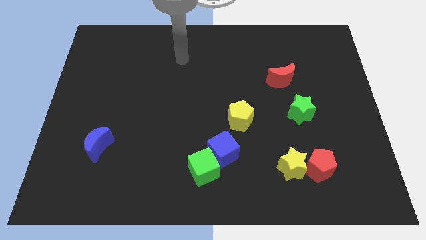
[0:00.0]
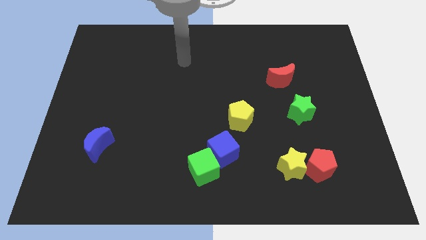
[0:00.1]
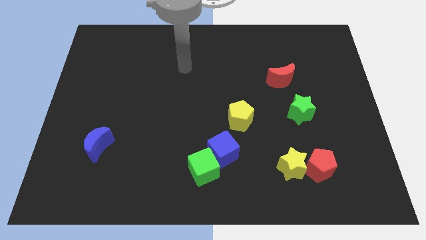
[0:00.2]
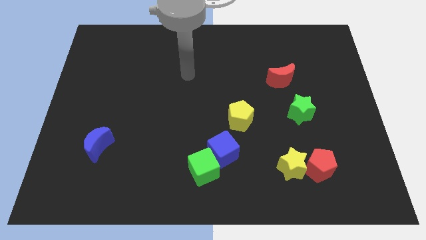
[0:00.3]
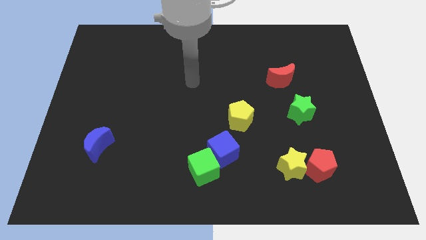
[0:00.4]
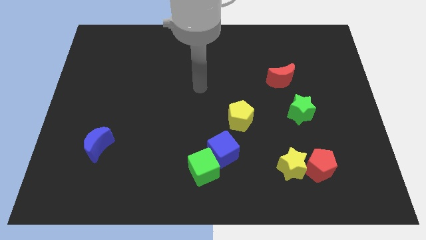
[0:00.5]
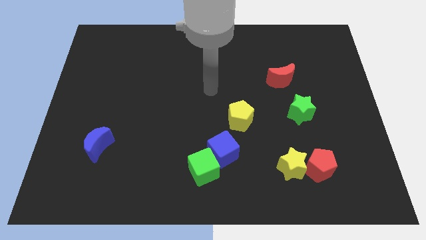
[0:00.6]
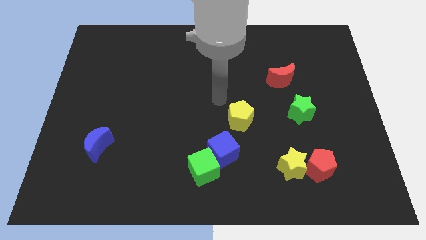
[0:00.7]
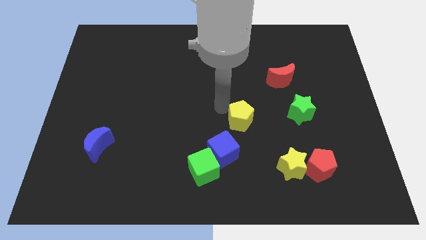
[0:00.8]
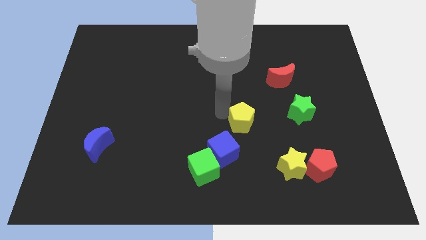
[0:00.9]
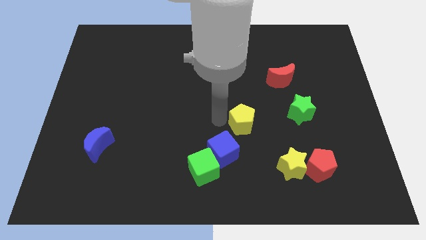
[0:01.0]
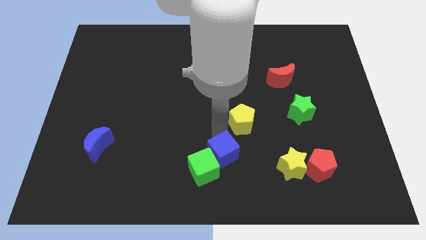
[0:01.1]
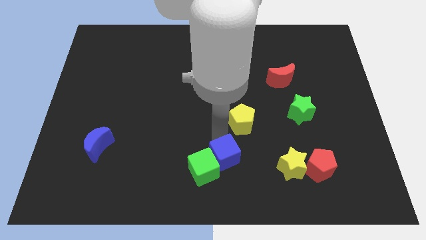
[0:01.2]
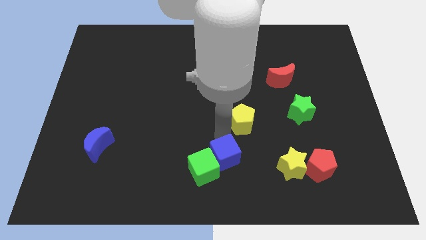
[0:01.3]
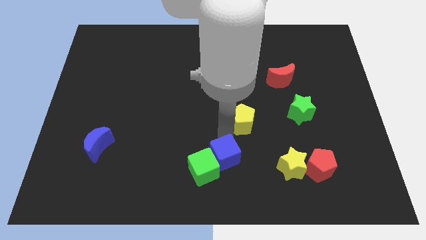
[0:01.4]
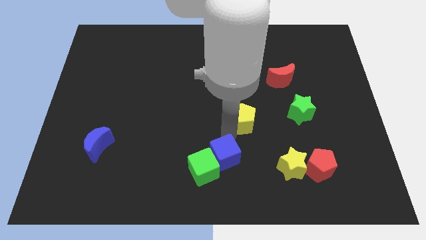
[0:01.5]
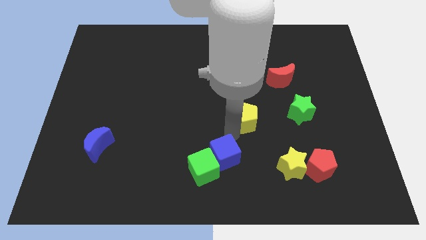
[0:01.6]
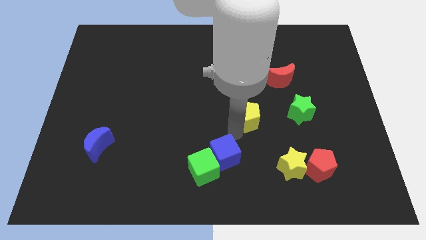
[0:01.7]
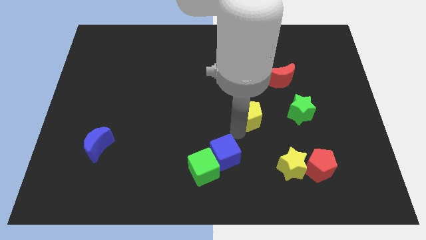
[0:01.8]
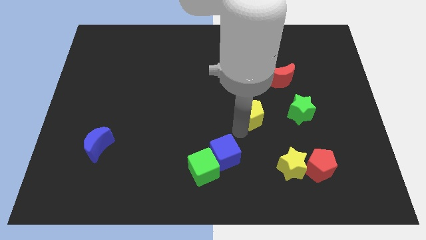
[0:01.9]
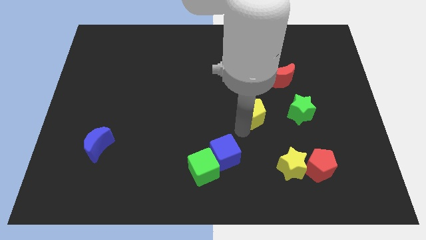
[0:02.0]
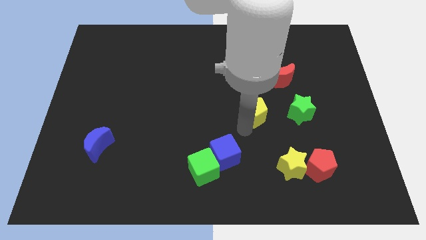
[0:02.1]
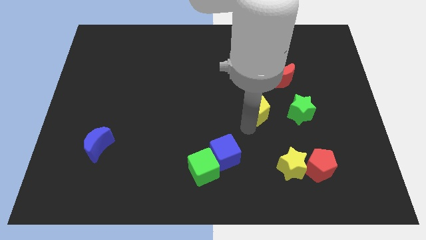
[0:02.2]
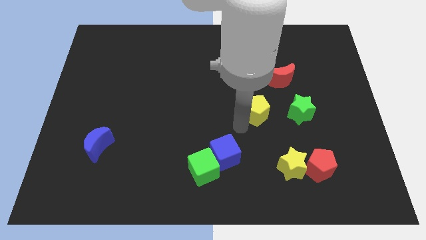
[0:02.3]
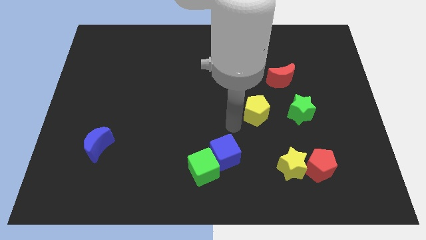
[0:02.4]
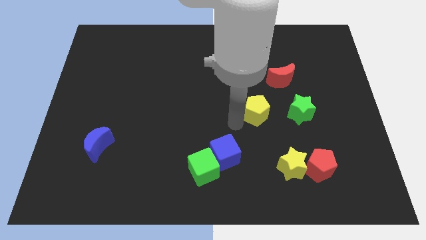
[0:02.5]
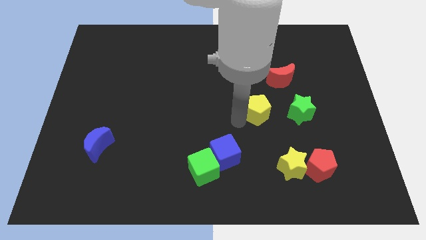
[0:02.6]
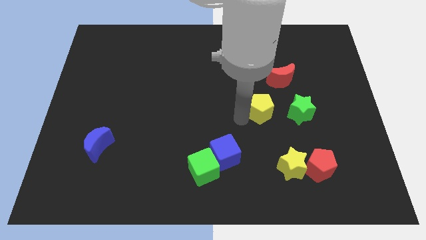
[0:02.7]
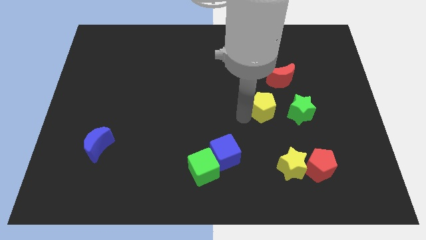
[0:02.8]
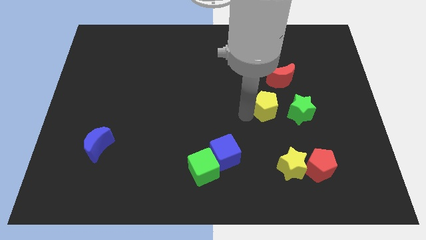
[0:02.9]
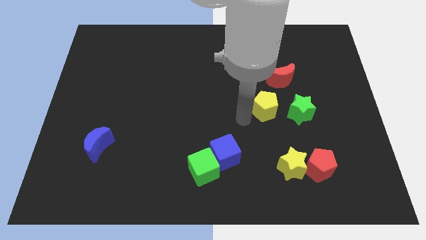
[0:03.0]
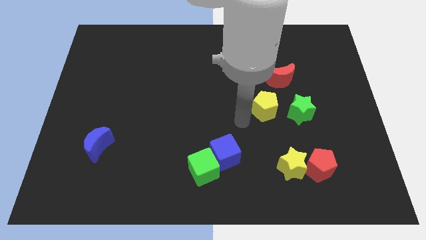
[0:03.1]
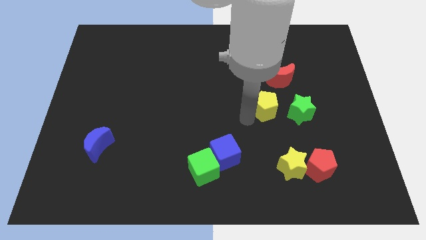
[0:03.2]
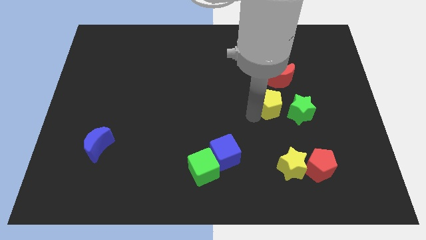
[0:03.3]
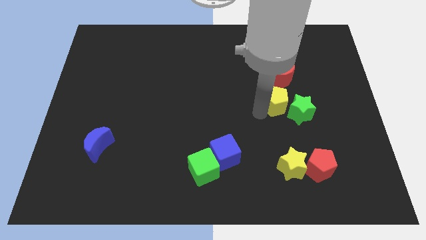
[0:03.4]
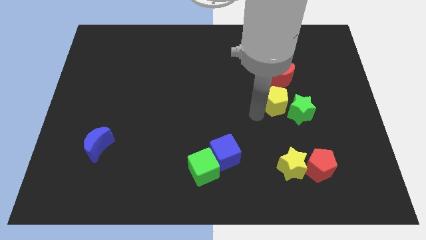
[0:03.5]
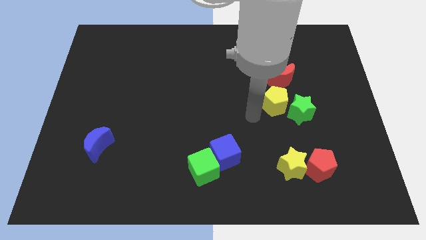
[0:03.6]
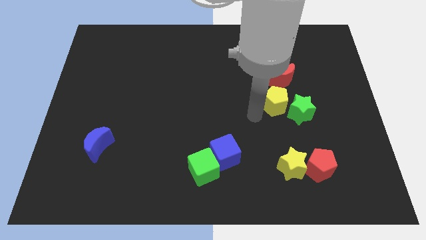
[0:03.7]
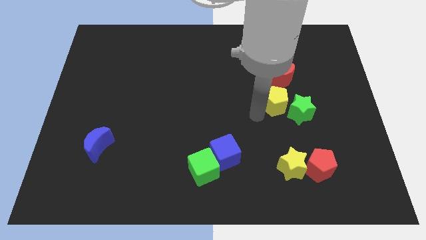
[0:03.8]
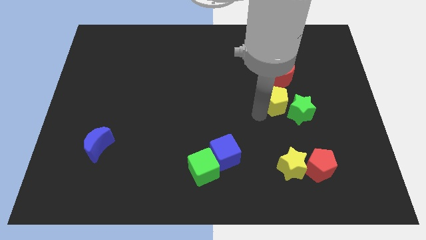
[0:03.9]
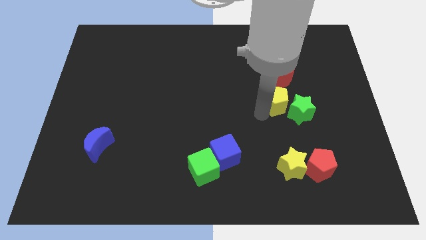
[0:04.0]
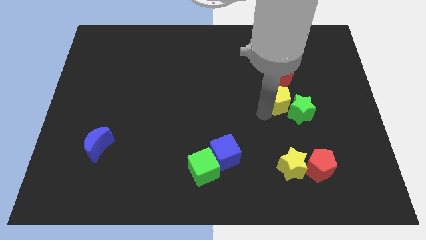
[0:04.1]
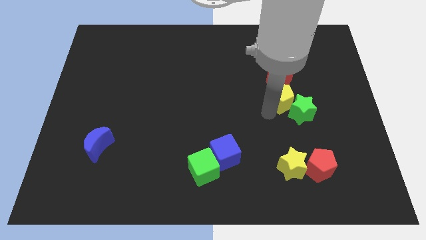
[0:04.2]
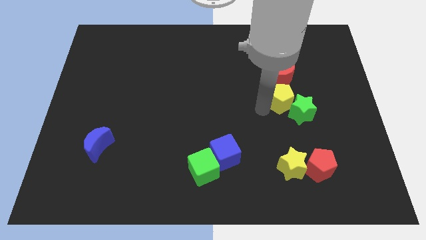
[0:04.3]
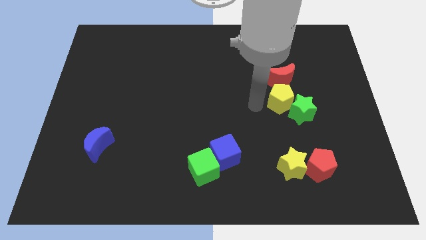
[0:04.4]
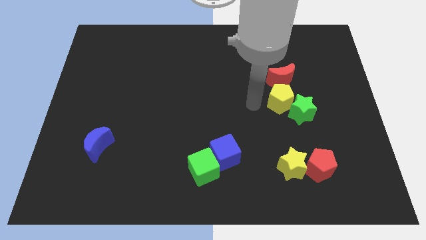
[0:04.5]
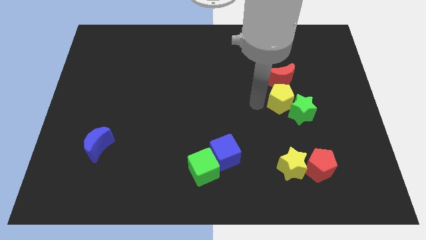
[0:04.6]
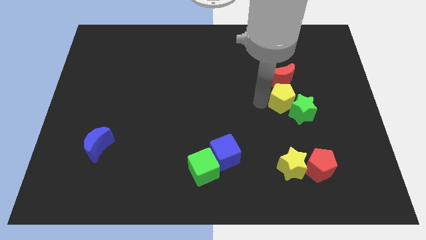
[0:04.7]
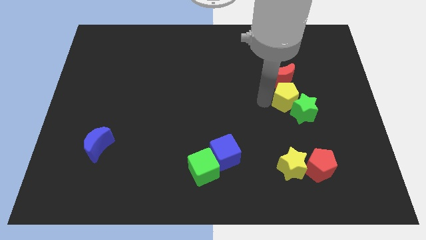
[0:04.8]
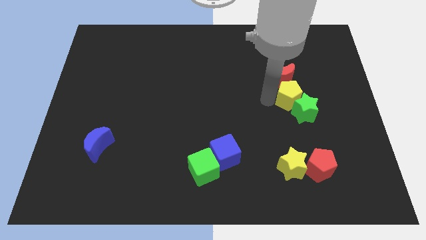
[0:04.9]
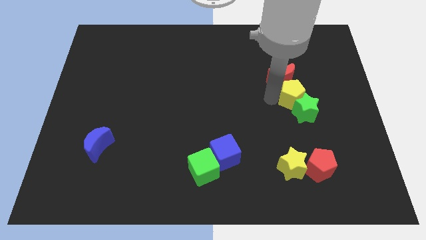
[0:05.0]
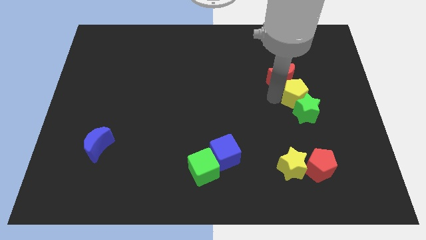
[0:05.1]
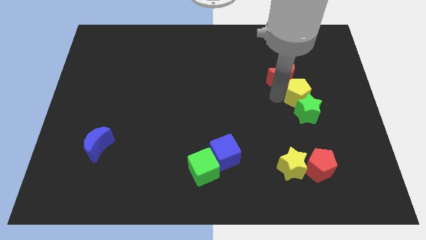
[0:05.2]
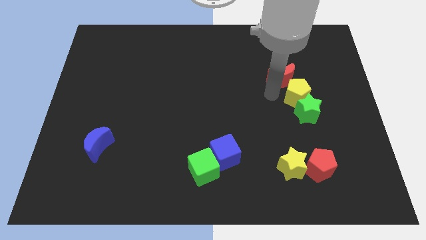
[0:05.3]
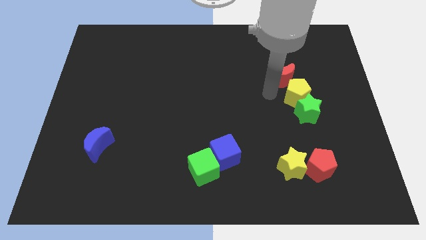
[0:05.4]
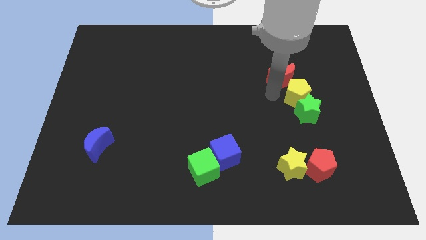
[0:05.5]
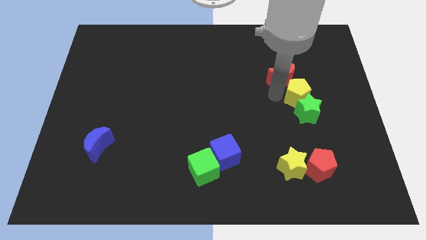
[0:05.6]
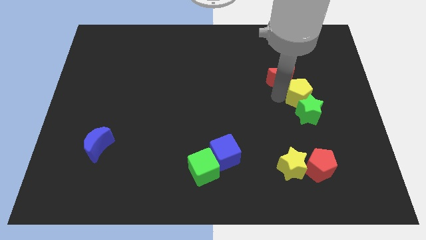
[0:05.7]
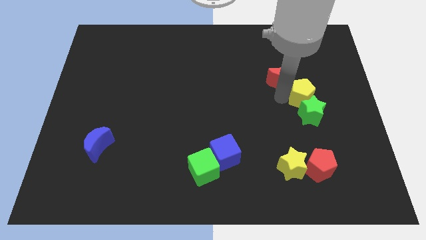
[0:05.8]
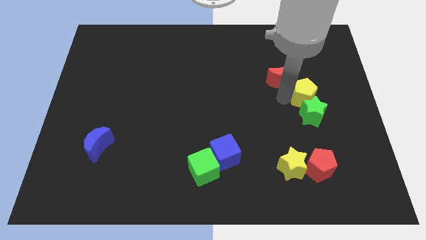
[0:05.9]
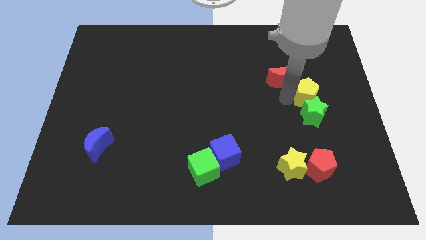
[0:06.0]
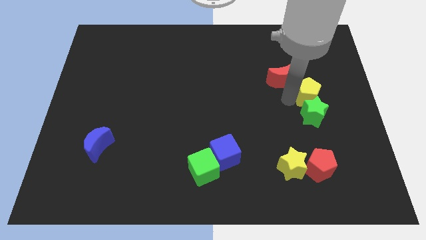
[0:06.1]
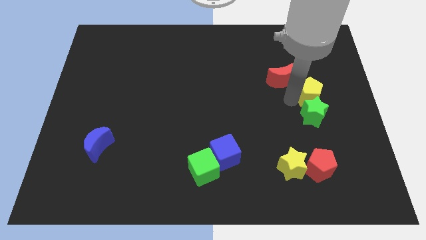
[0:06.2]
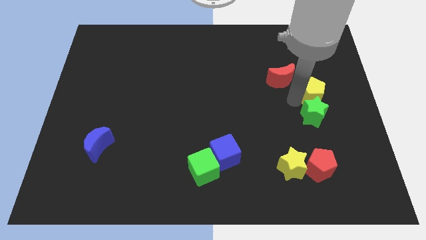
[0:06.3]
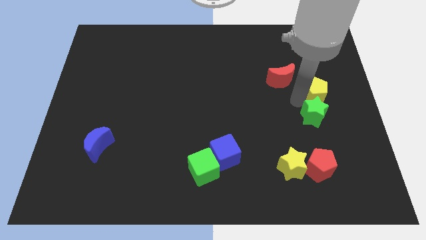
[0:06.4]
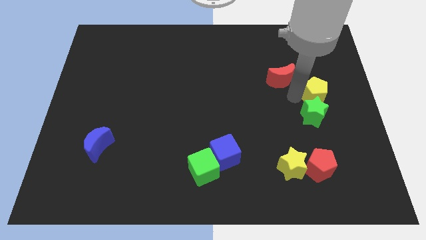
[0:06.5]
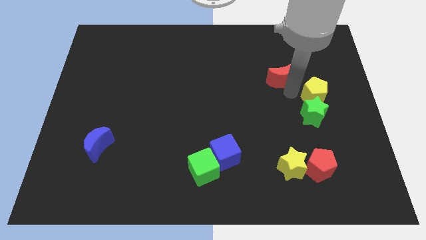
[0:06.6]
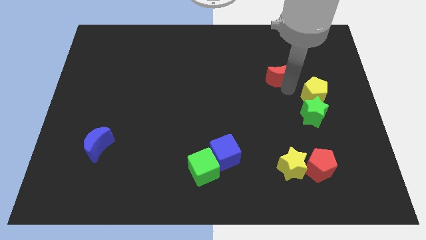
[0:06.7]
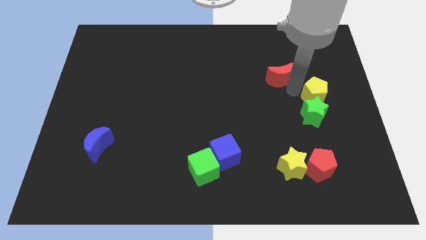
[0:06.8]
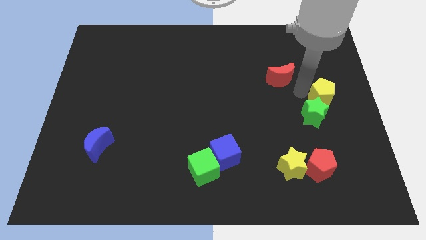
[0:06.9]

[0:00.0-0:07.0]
move the yellow pentagon to the right side of the board

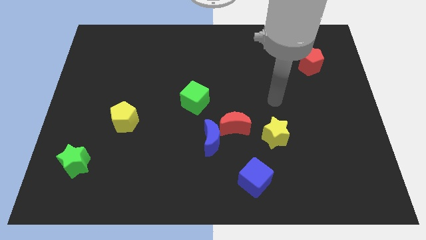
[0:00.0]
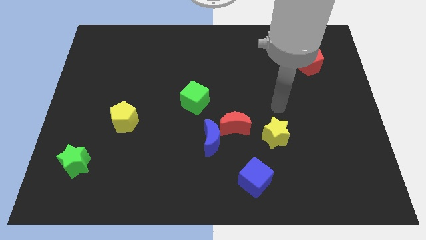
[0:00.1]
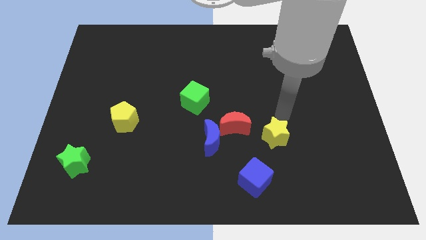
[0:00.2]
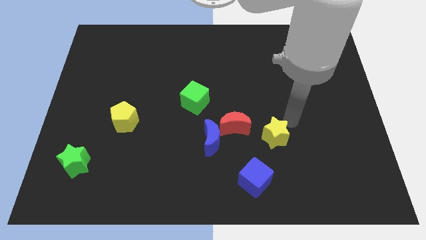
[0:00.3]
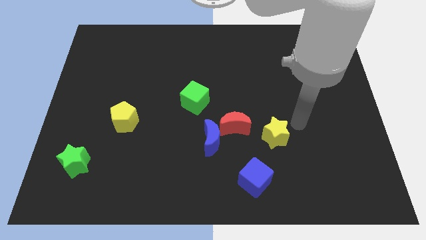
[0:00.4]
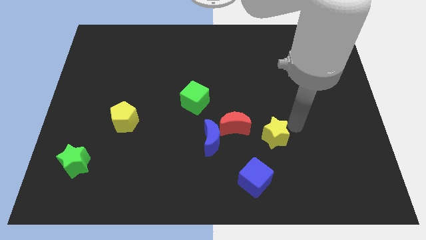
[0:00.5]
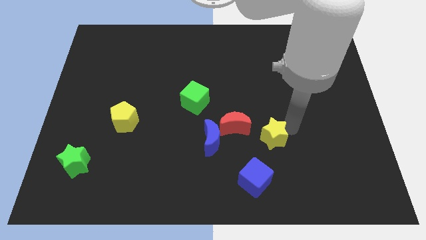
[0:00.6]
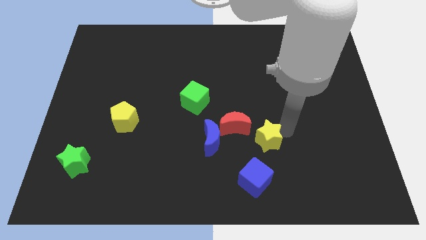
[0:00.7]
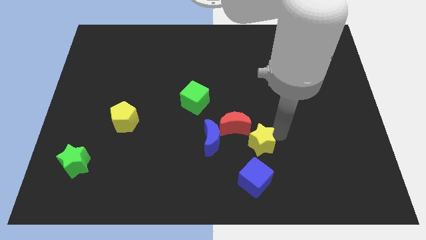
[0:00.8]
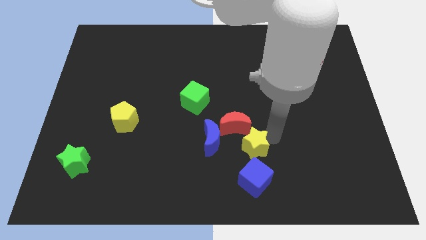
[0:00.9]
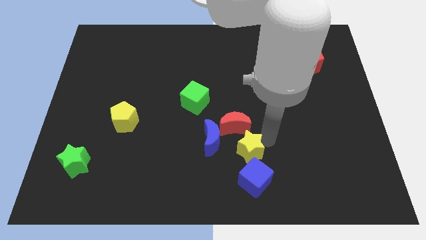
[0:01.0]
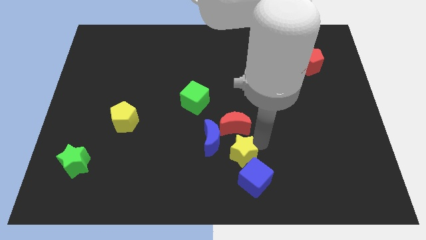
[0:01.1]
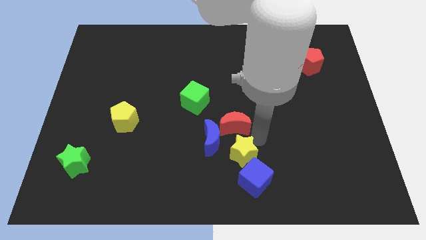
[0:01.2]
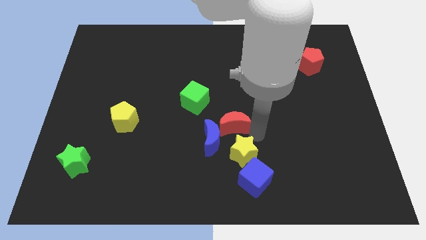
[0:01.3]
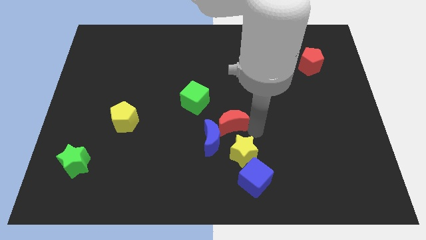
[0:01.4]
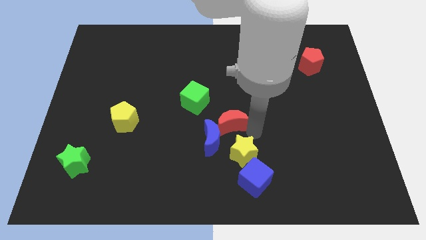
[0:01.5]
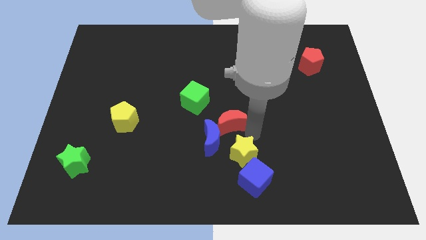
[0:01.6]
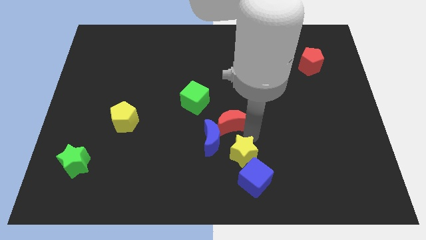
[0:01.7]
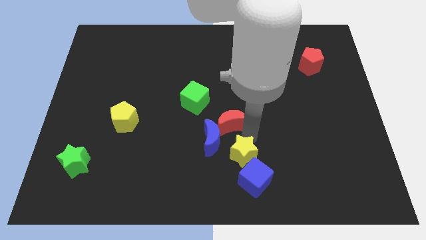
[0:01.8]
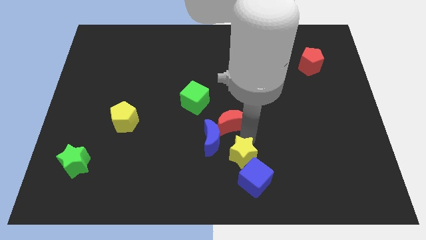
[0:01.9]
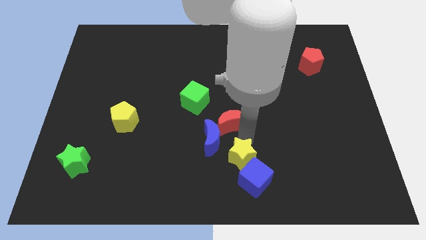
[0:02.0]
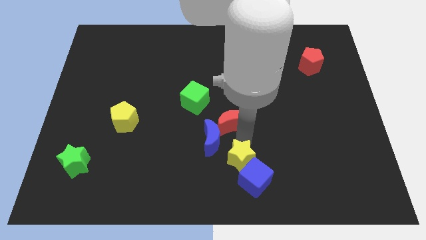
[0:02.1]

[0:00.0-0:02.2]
slide the yellow star to the bottom
